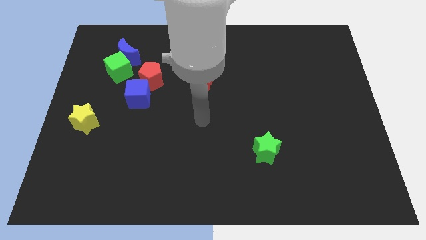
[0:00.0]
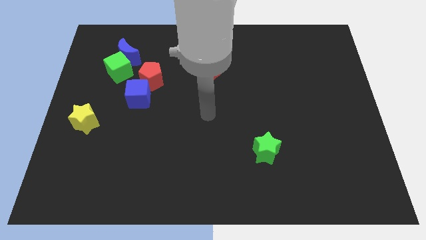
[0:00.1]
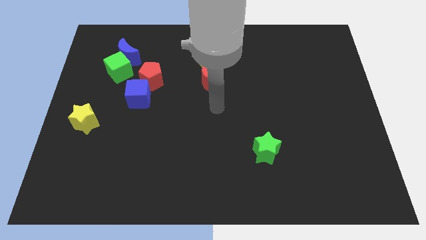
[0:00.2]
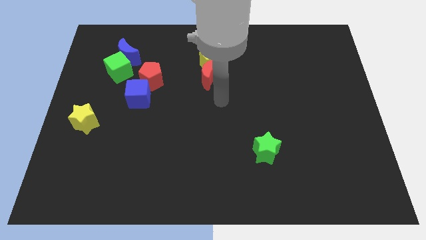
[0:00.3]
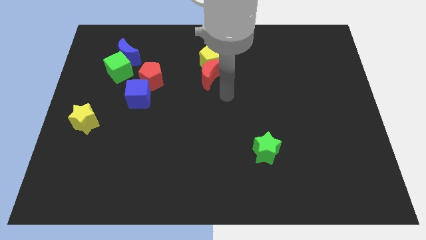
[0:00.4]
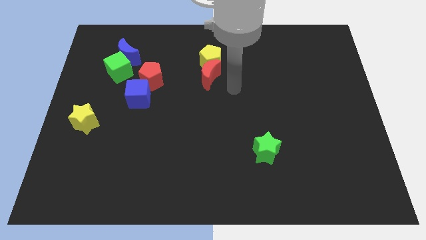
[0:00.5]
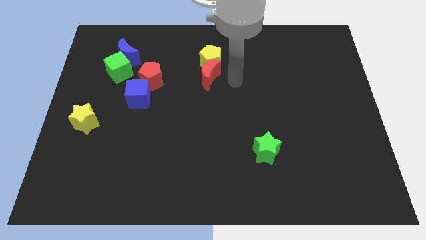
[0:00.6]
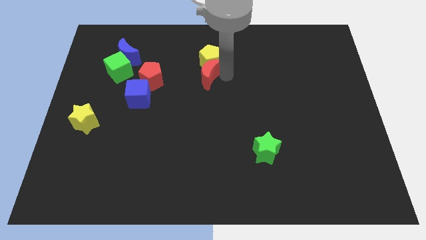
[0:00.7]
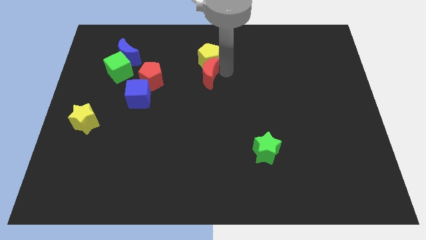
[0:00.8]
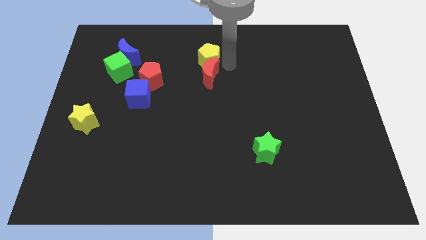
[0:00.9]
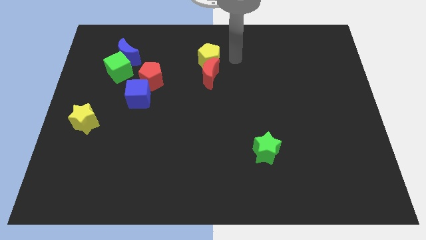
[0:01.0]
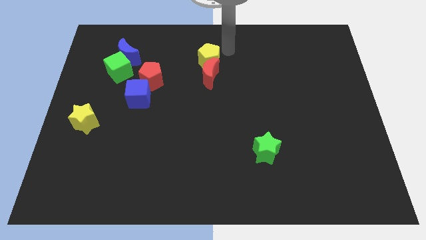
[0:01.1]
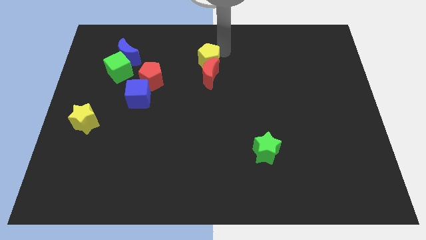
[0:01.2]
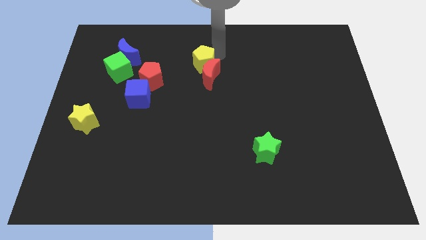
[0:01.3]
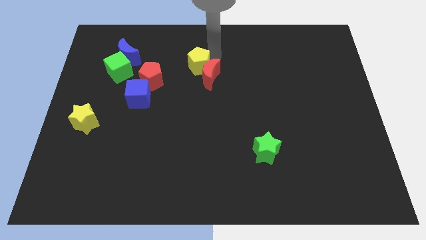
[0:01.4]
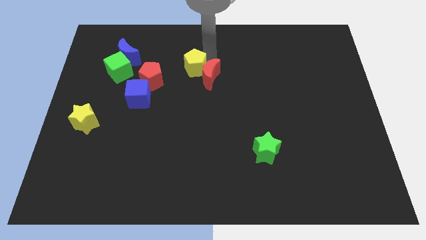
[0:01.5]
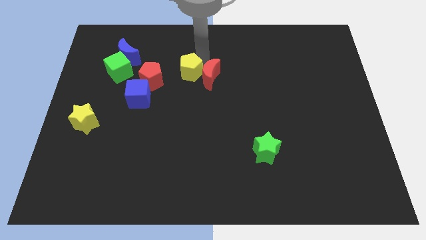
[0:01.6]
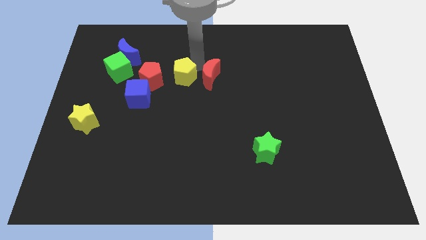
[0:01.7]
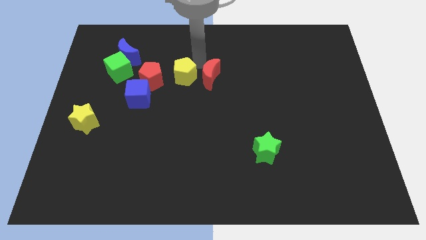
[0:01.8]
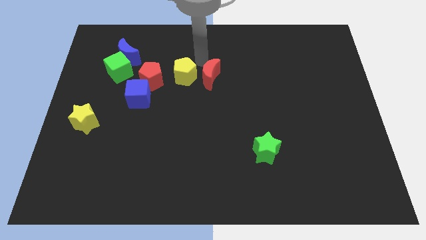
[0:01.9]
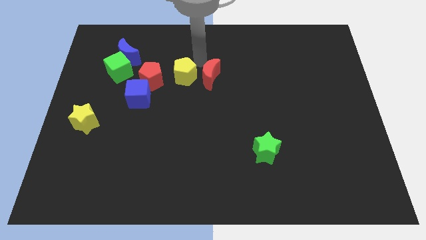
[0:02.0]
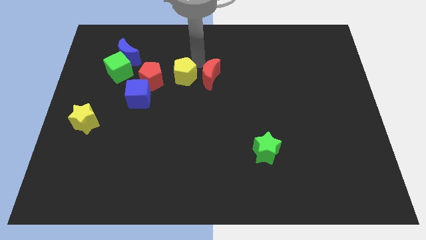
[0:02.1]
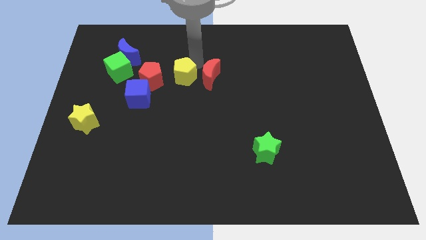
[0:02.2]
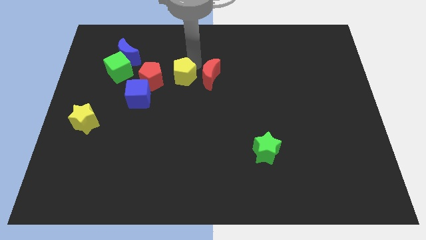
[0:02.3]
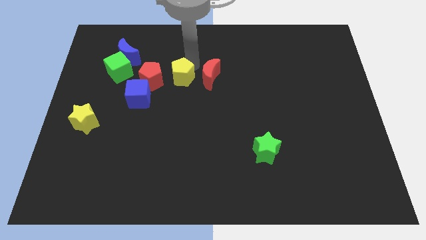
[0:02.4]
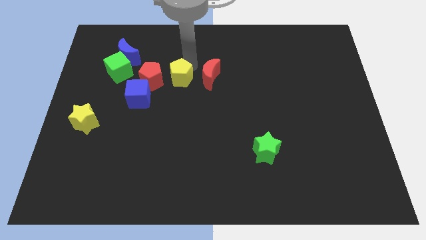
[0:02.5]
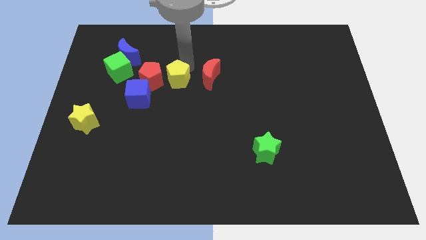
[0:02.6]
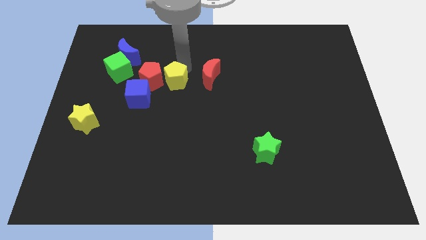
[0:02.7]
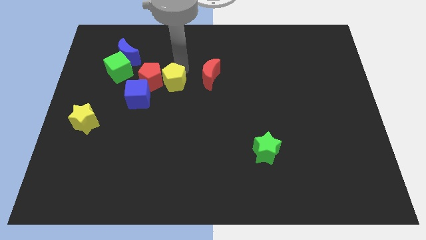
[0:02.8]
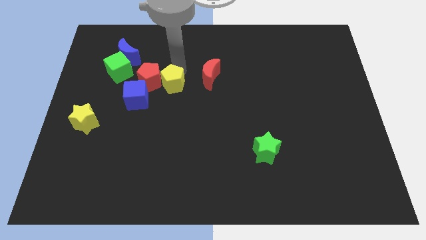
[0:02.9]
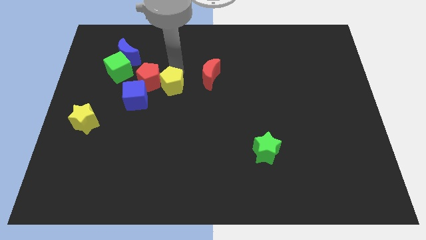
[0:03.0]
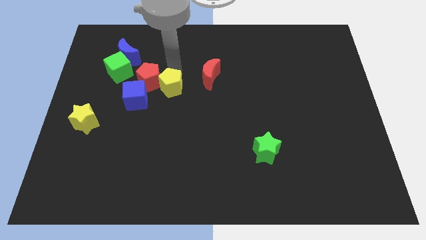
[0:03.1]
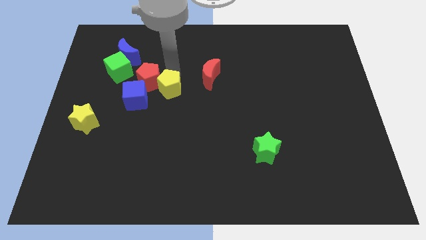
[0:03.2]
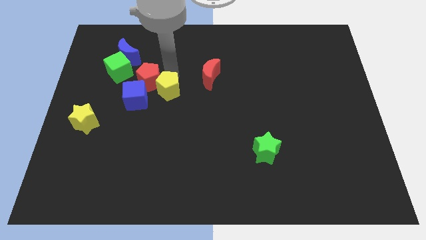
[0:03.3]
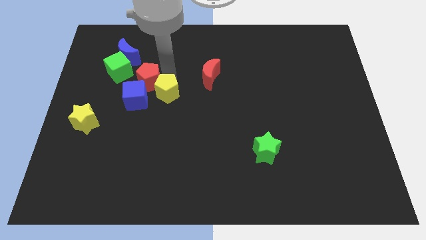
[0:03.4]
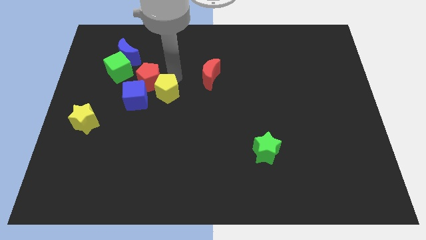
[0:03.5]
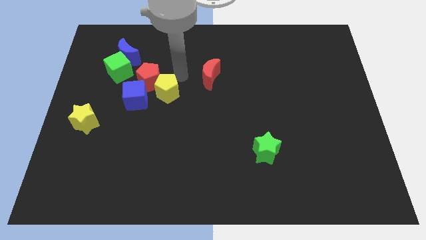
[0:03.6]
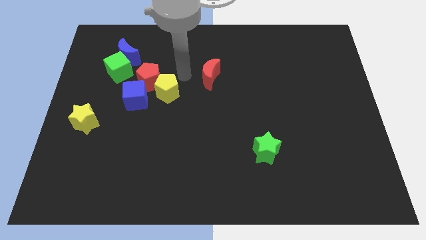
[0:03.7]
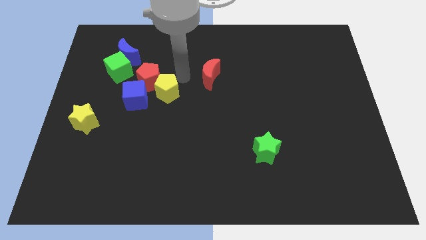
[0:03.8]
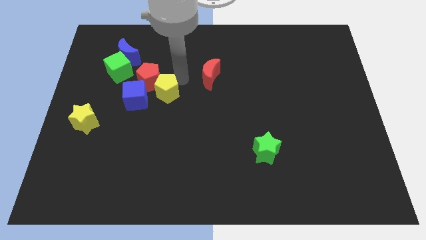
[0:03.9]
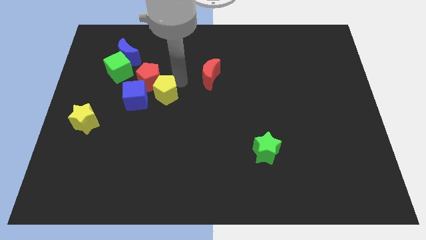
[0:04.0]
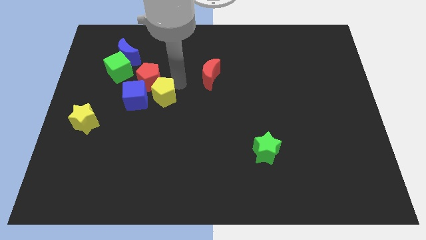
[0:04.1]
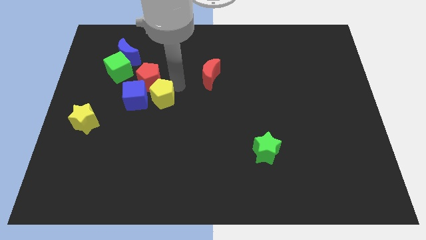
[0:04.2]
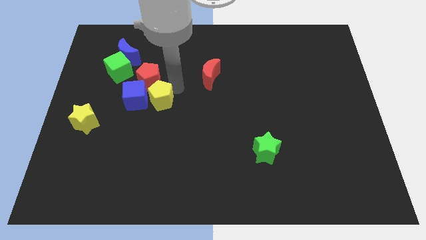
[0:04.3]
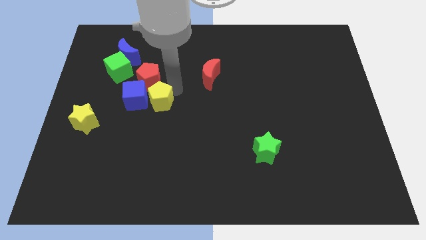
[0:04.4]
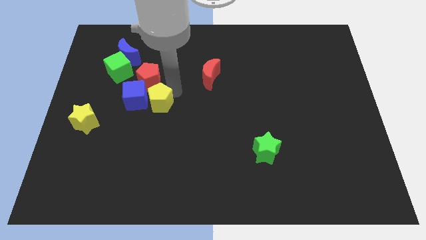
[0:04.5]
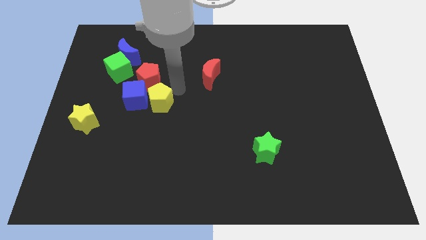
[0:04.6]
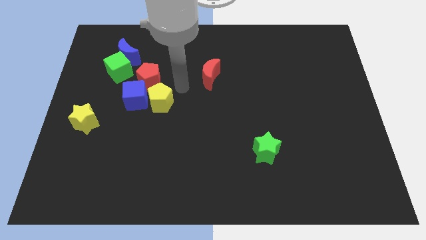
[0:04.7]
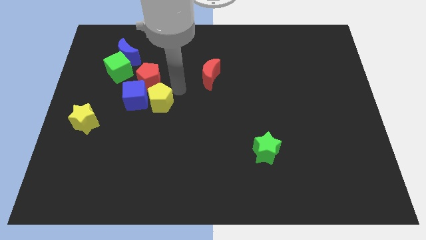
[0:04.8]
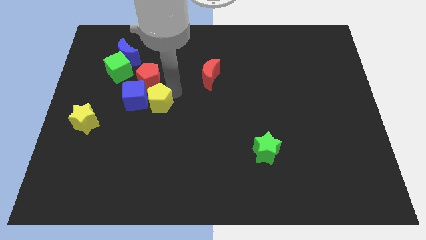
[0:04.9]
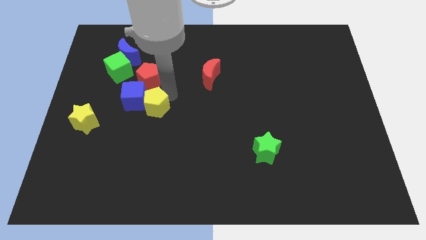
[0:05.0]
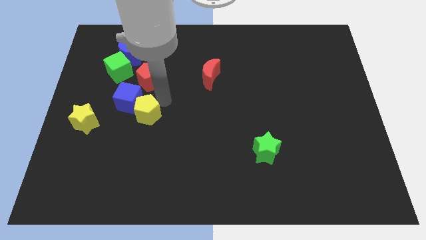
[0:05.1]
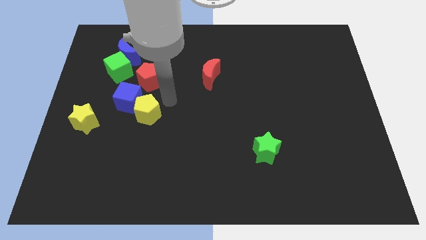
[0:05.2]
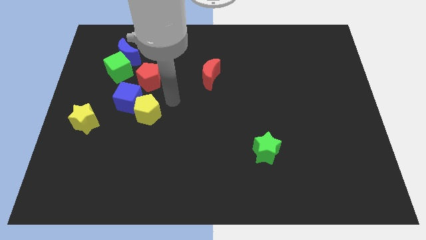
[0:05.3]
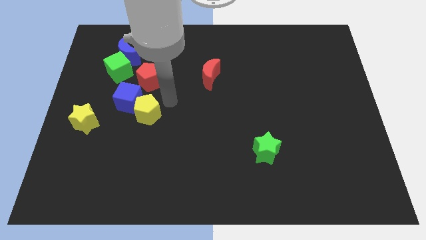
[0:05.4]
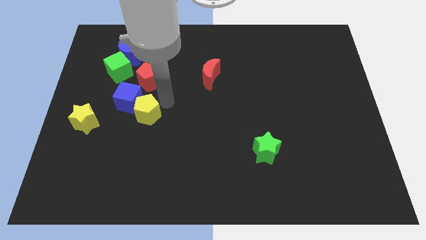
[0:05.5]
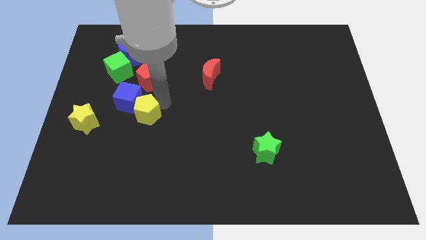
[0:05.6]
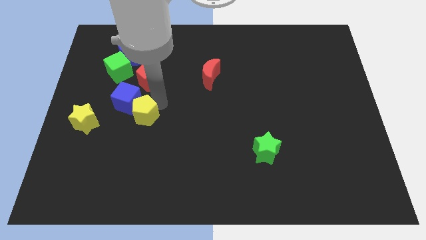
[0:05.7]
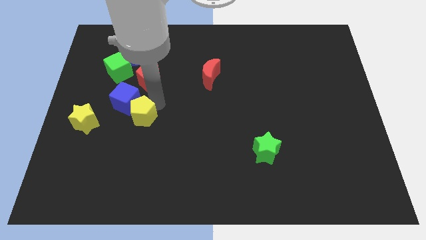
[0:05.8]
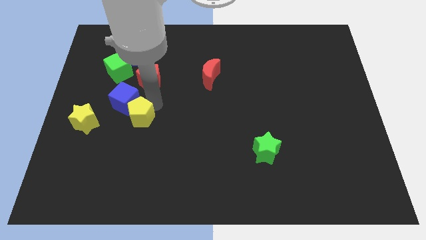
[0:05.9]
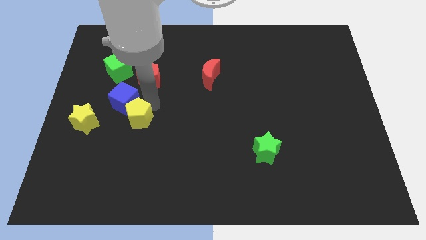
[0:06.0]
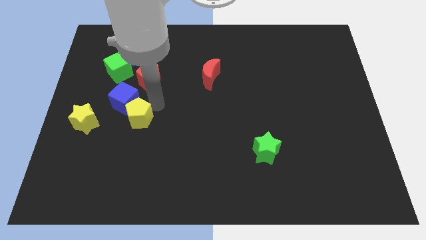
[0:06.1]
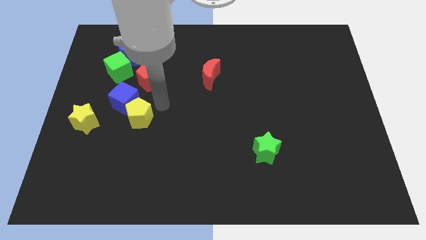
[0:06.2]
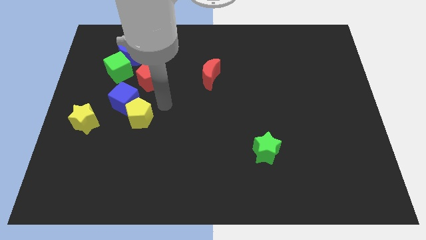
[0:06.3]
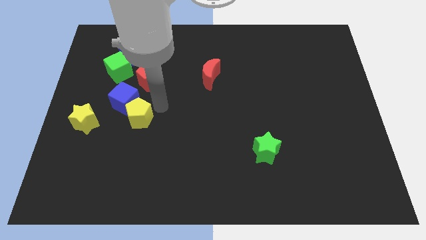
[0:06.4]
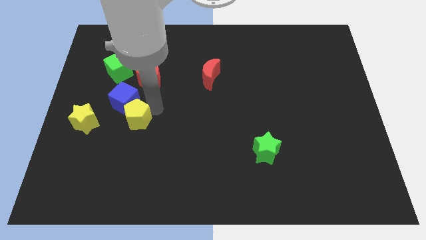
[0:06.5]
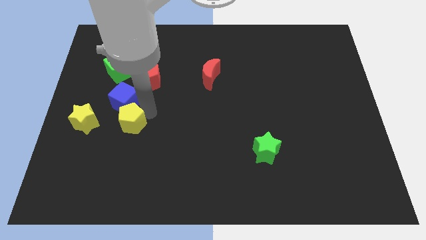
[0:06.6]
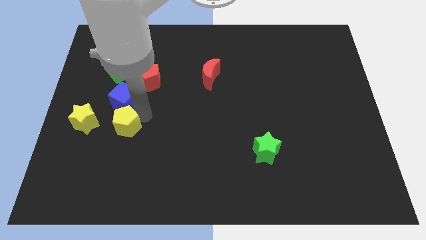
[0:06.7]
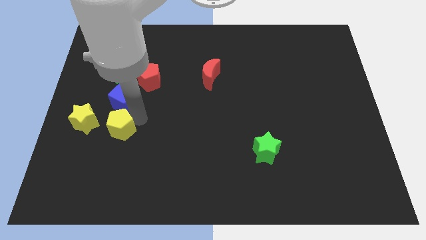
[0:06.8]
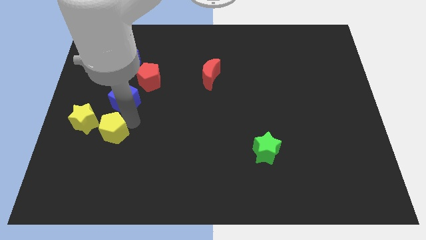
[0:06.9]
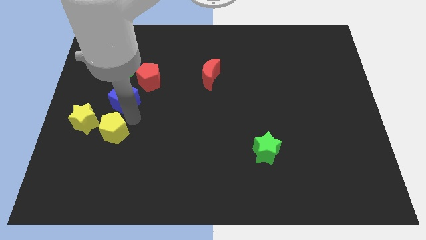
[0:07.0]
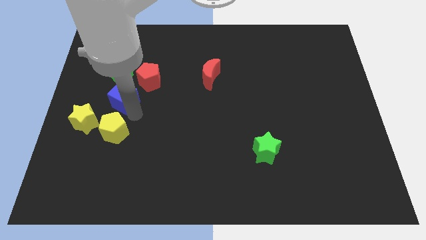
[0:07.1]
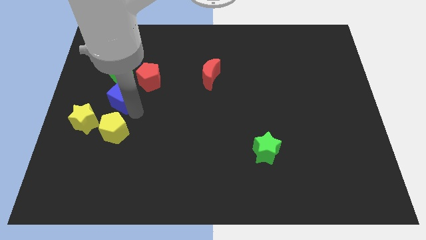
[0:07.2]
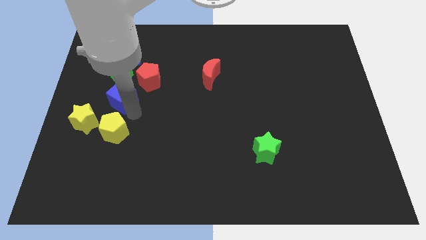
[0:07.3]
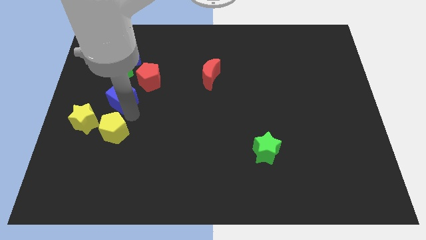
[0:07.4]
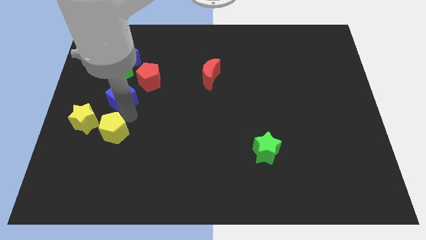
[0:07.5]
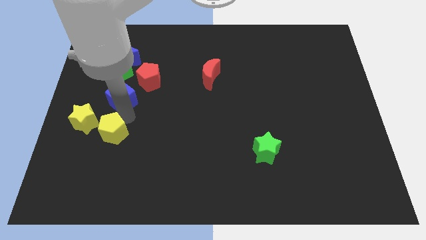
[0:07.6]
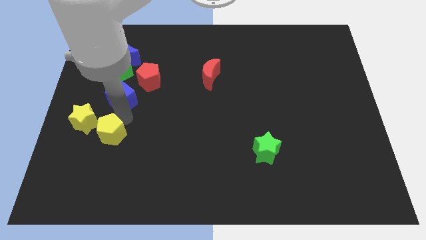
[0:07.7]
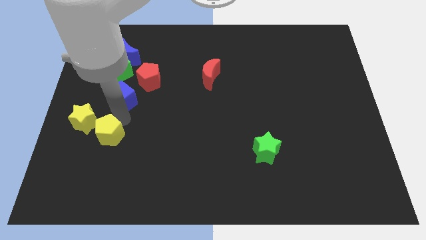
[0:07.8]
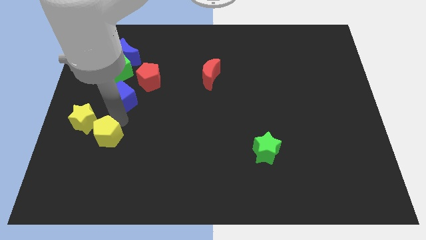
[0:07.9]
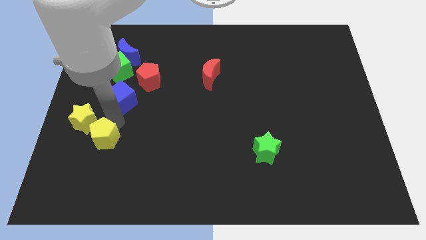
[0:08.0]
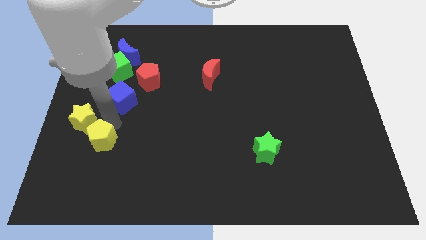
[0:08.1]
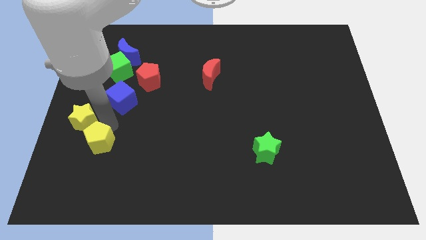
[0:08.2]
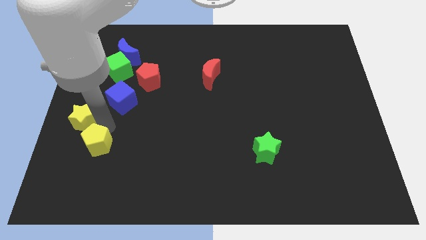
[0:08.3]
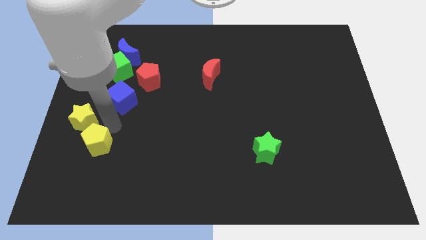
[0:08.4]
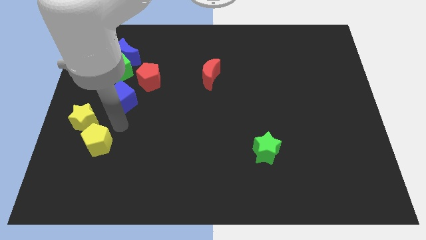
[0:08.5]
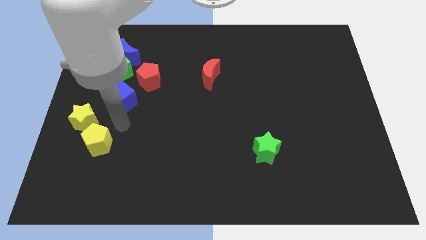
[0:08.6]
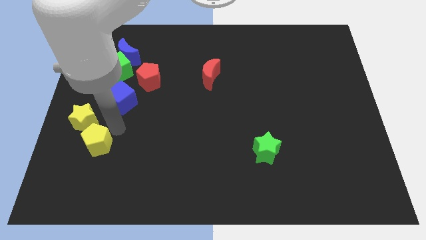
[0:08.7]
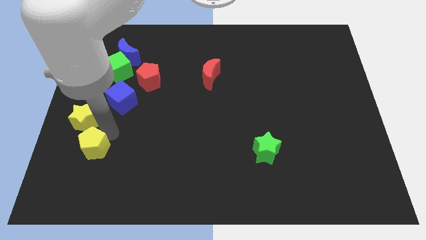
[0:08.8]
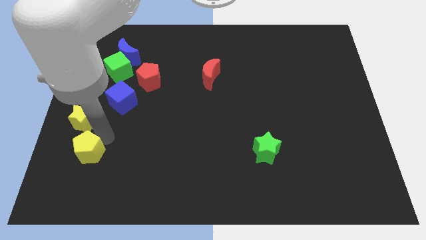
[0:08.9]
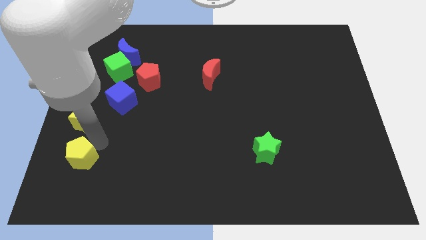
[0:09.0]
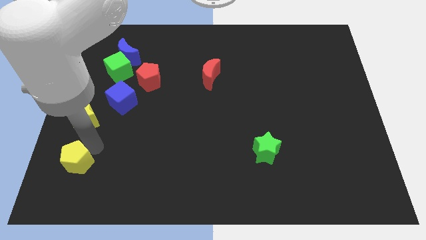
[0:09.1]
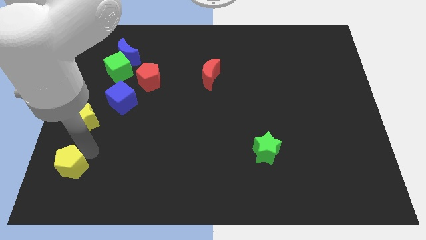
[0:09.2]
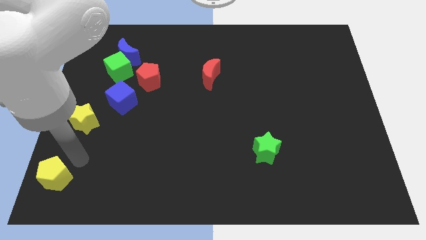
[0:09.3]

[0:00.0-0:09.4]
push the yellow pentagon to the bottom left
